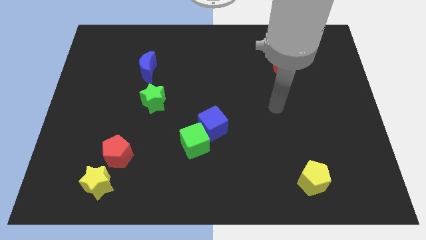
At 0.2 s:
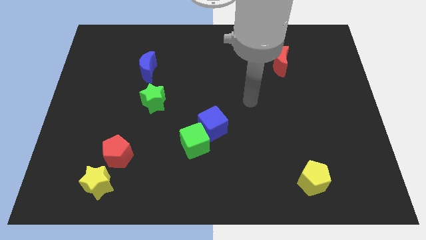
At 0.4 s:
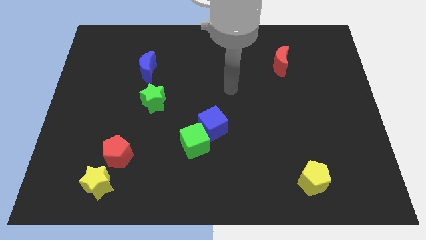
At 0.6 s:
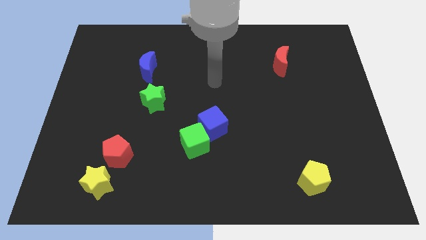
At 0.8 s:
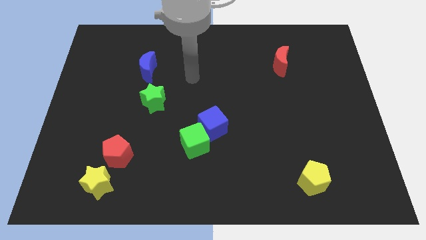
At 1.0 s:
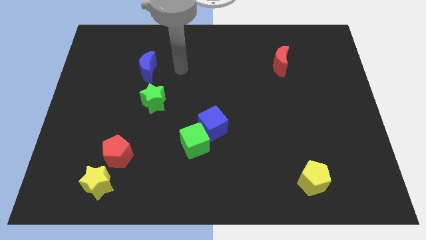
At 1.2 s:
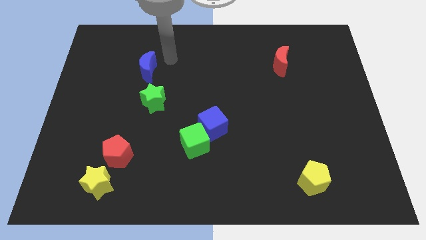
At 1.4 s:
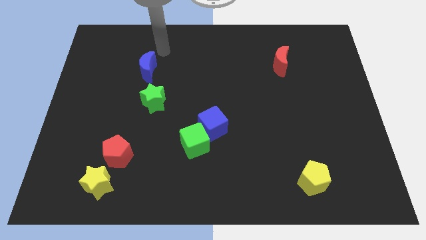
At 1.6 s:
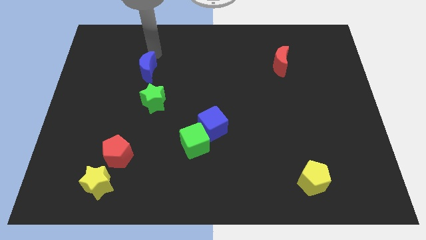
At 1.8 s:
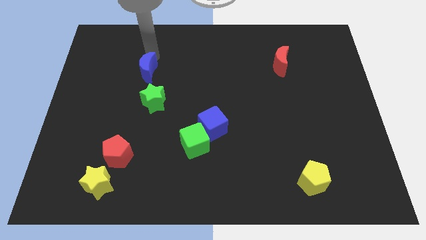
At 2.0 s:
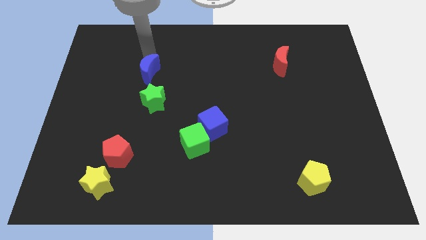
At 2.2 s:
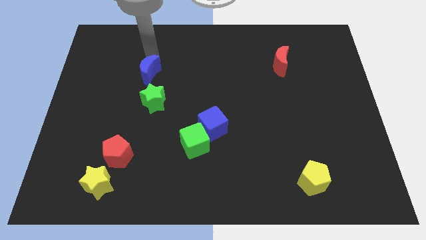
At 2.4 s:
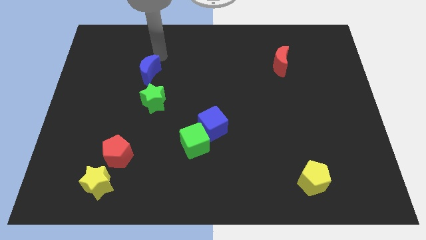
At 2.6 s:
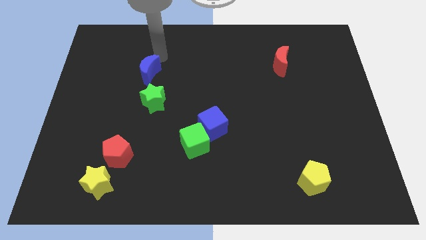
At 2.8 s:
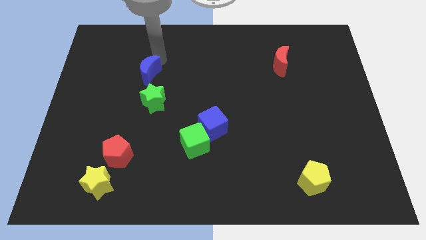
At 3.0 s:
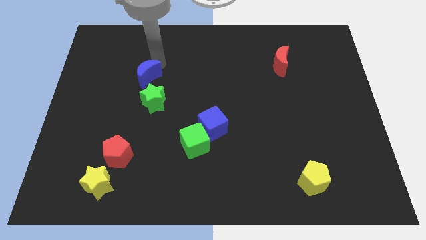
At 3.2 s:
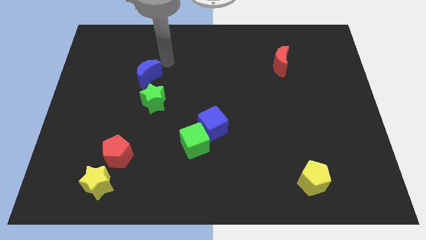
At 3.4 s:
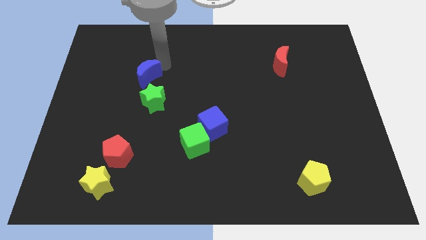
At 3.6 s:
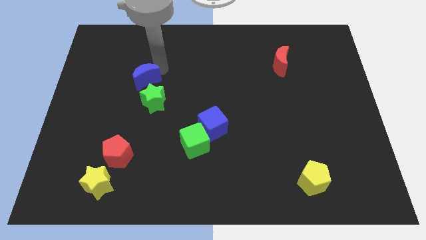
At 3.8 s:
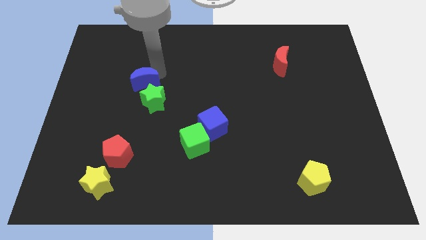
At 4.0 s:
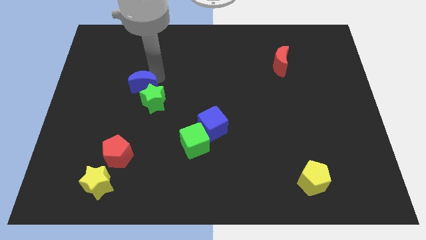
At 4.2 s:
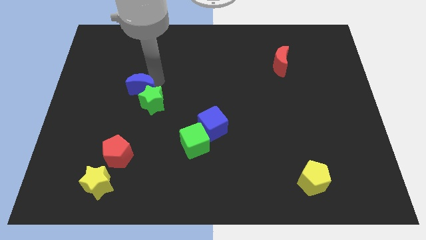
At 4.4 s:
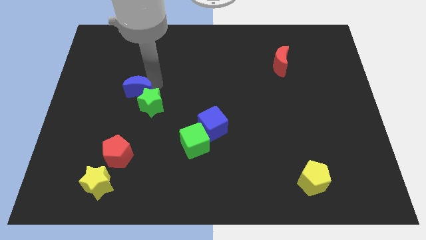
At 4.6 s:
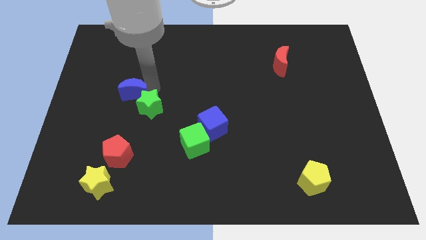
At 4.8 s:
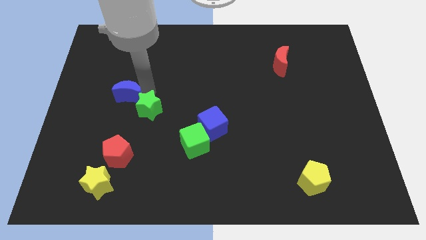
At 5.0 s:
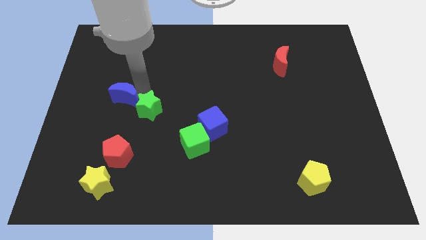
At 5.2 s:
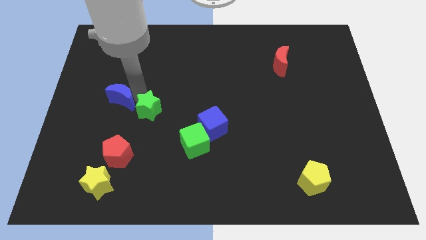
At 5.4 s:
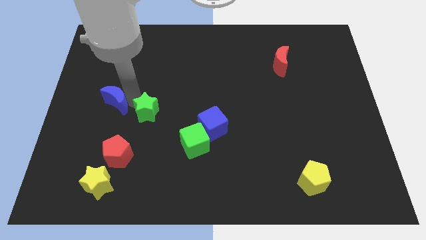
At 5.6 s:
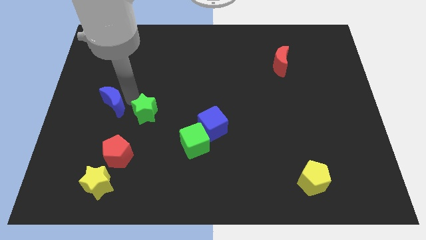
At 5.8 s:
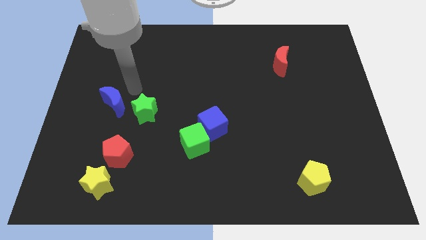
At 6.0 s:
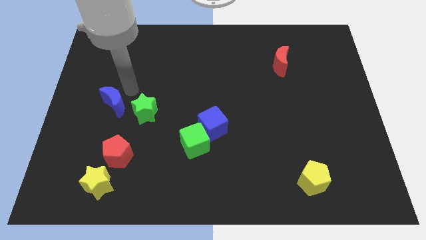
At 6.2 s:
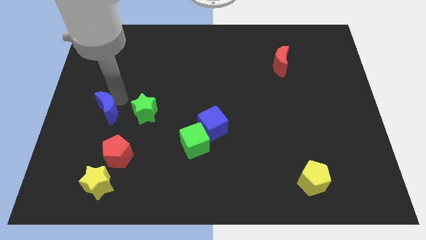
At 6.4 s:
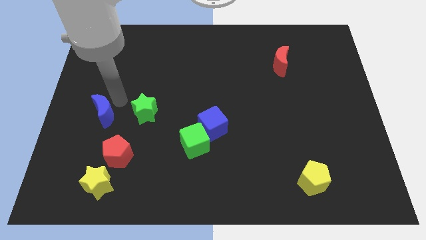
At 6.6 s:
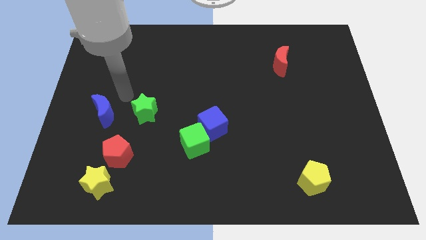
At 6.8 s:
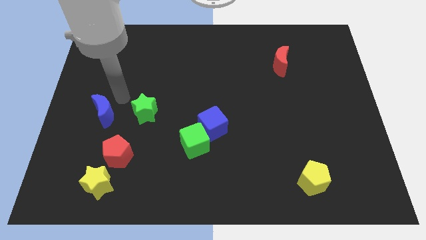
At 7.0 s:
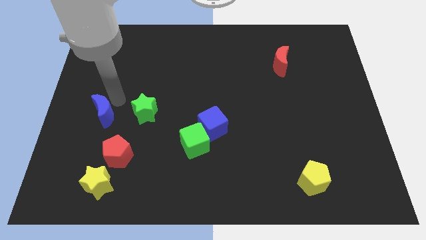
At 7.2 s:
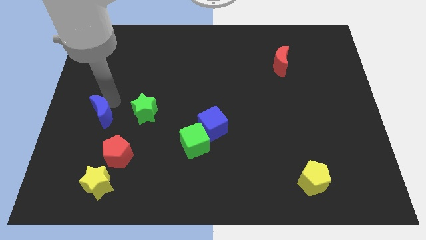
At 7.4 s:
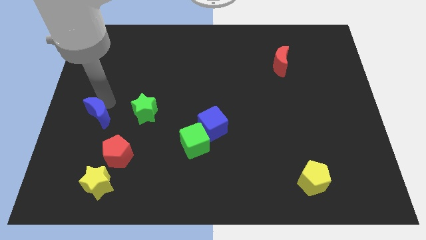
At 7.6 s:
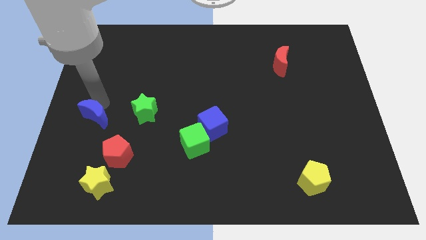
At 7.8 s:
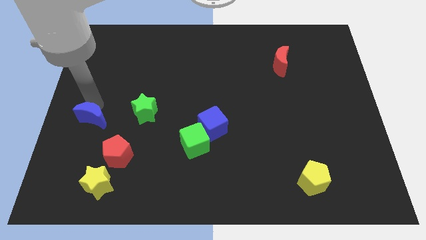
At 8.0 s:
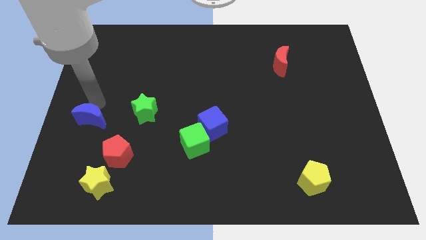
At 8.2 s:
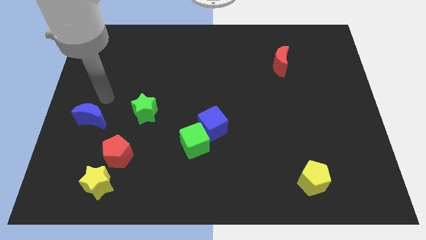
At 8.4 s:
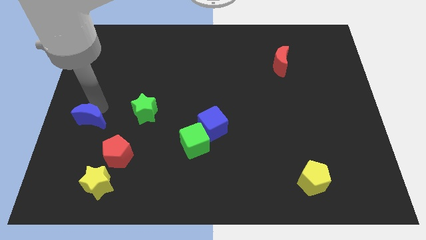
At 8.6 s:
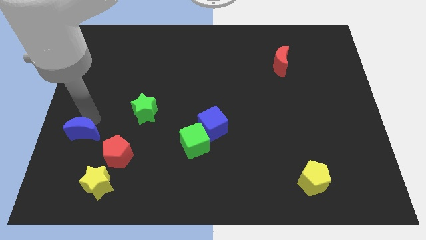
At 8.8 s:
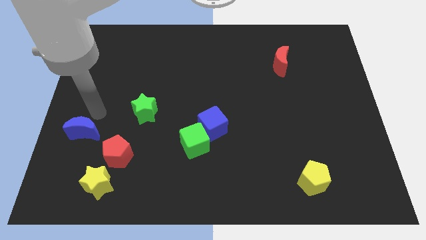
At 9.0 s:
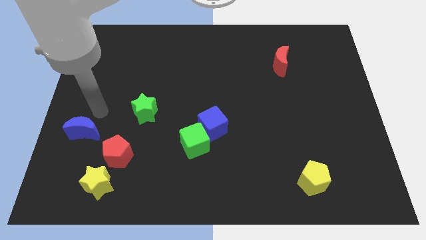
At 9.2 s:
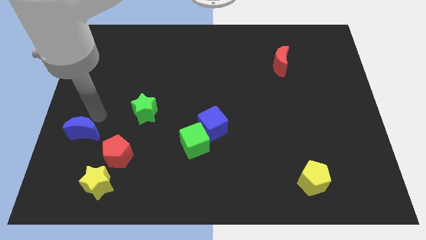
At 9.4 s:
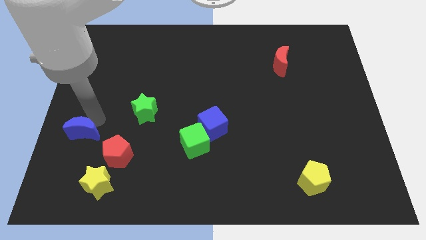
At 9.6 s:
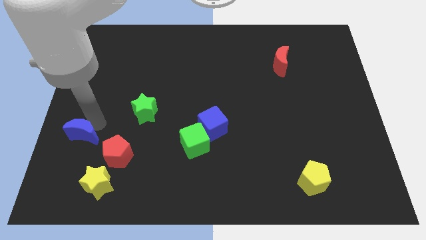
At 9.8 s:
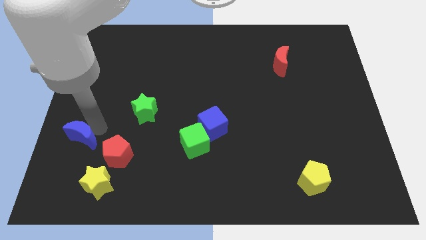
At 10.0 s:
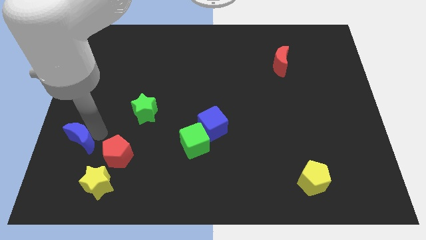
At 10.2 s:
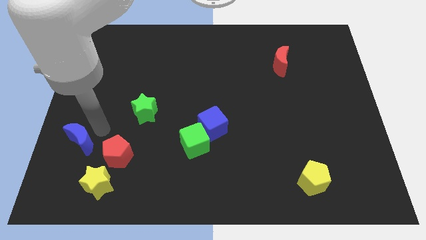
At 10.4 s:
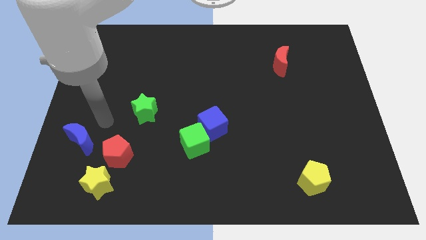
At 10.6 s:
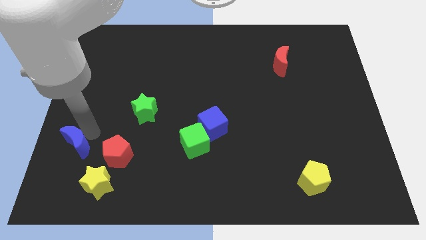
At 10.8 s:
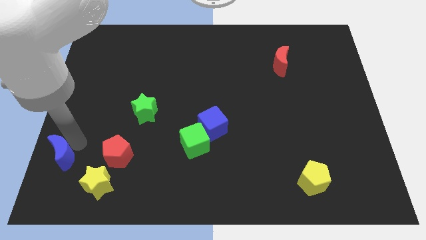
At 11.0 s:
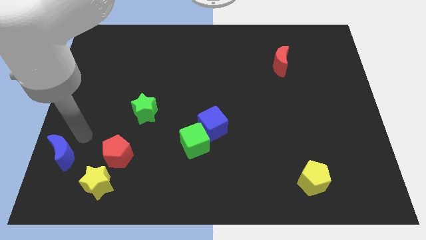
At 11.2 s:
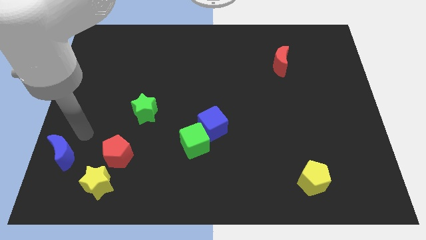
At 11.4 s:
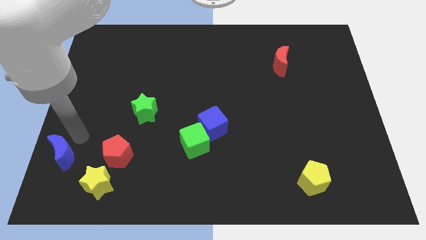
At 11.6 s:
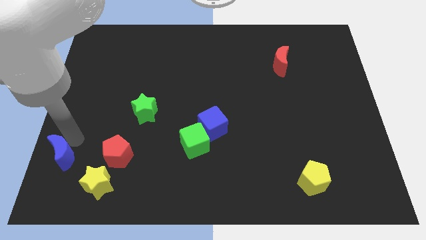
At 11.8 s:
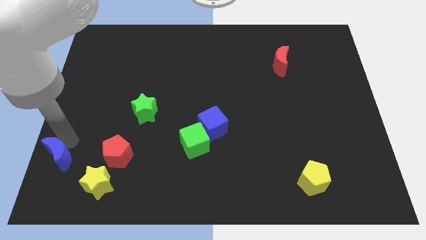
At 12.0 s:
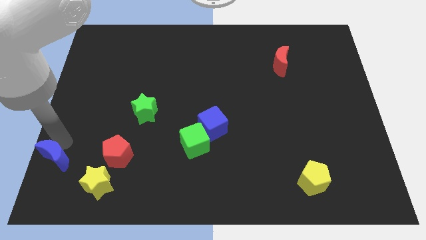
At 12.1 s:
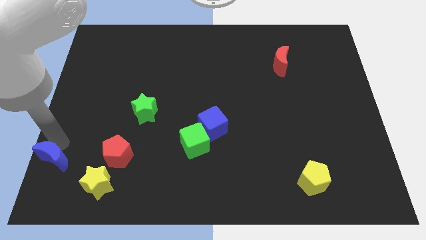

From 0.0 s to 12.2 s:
put the blue moon to the bottom left of the board
